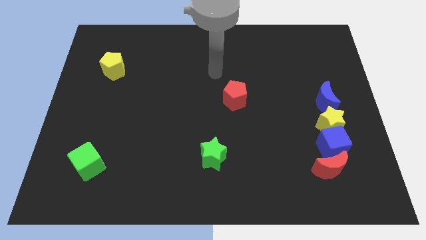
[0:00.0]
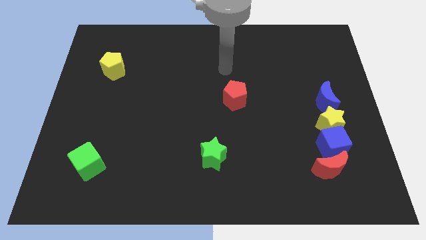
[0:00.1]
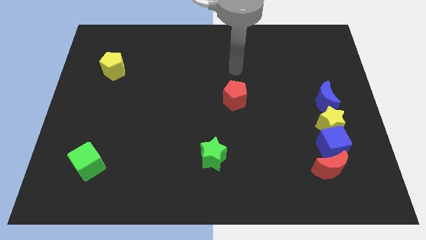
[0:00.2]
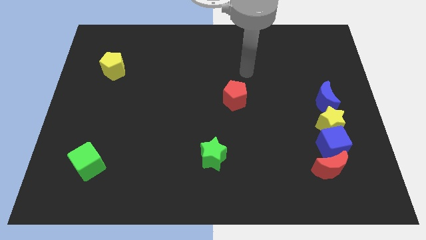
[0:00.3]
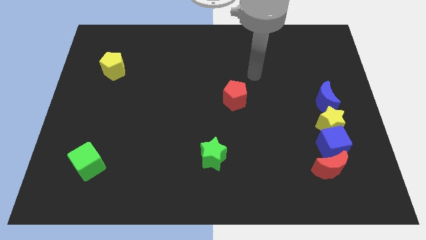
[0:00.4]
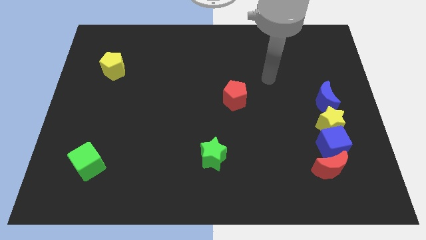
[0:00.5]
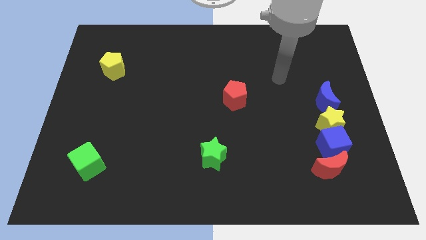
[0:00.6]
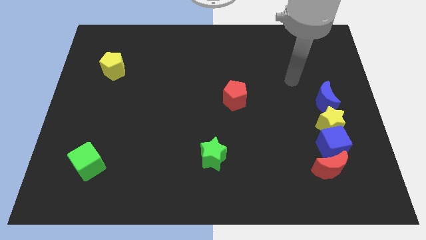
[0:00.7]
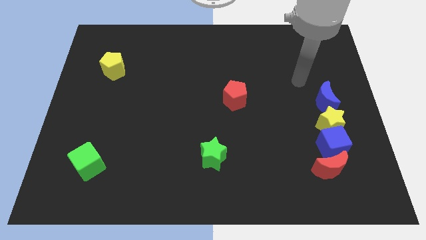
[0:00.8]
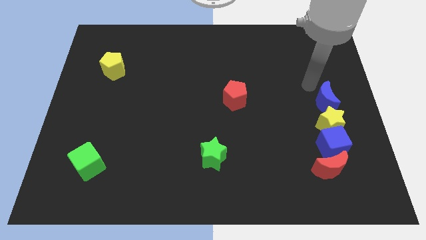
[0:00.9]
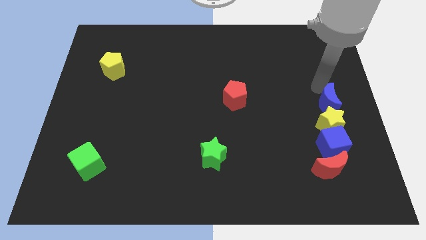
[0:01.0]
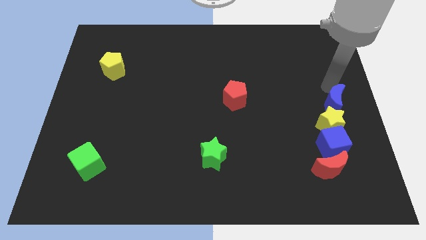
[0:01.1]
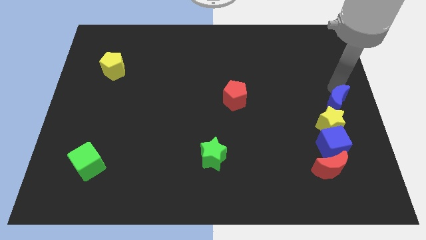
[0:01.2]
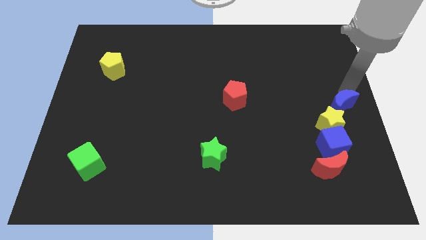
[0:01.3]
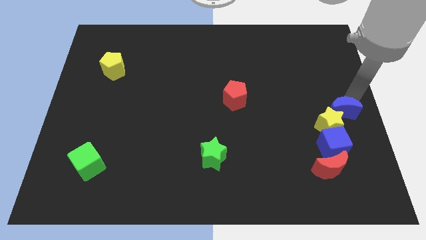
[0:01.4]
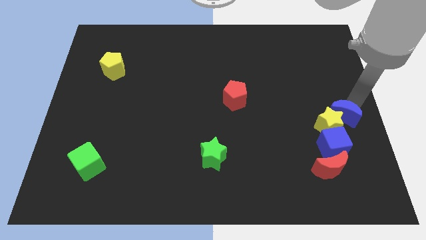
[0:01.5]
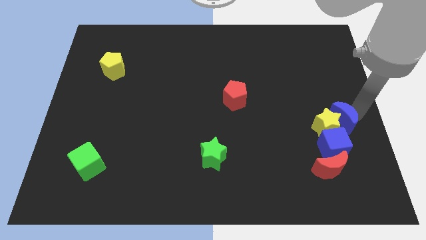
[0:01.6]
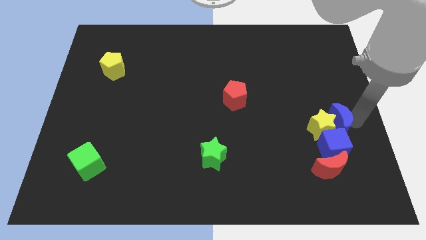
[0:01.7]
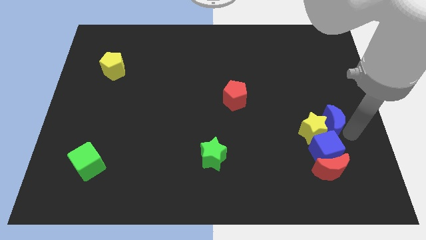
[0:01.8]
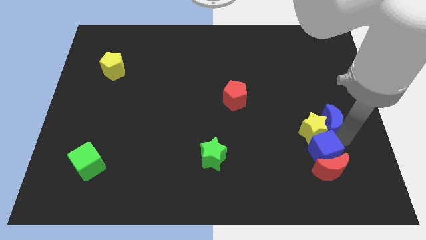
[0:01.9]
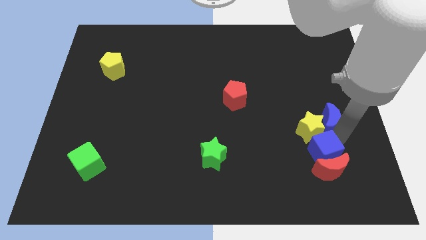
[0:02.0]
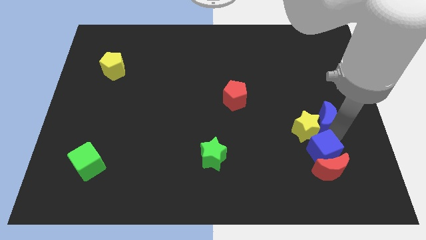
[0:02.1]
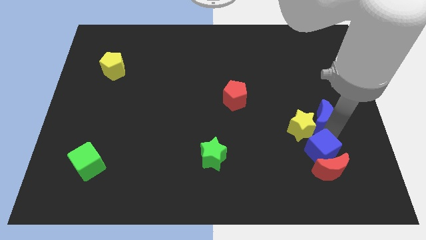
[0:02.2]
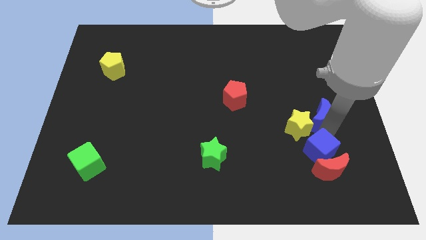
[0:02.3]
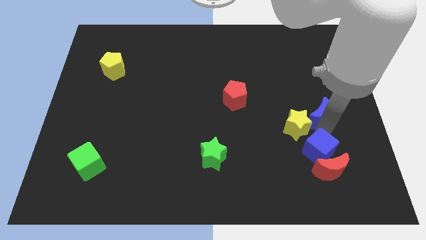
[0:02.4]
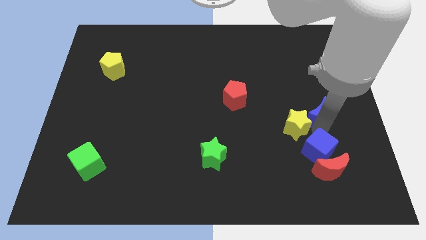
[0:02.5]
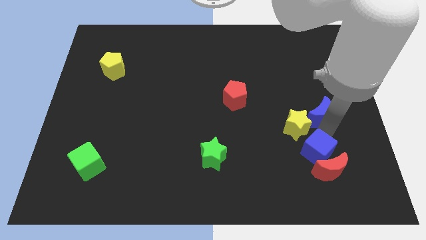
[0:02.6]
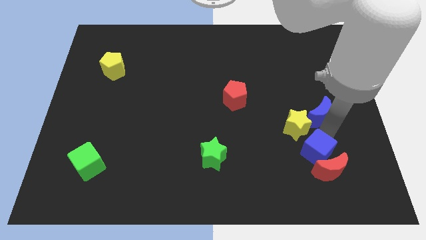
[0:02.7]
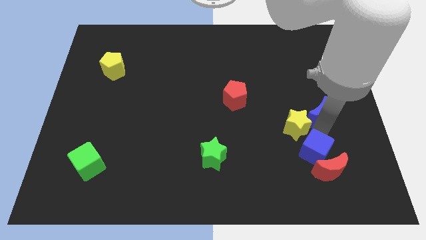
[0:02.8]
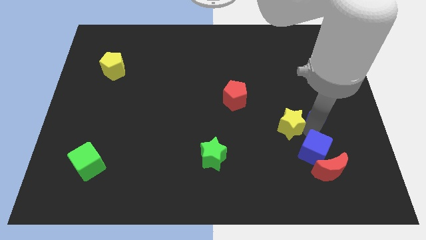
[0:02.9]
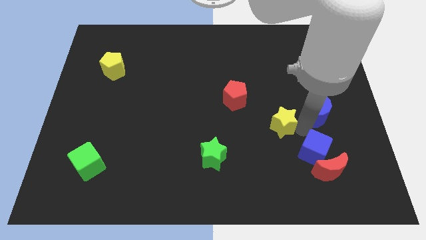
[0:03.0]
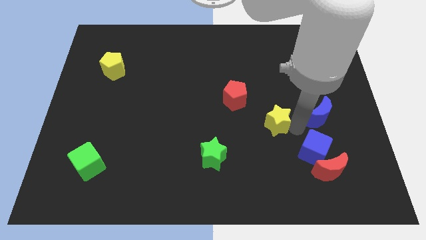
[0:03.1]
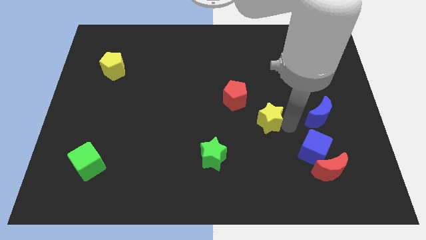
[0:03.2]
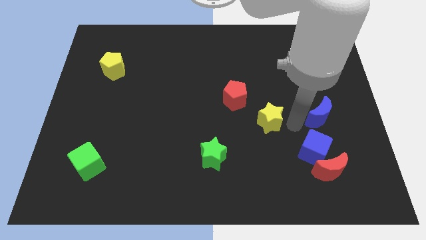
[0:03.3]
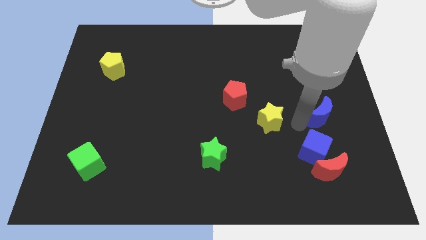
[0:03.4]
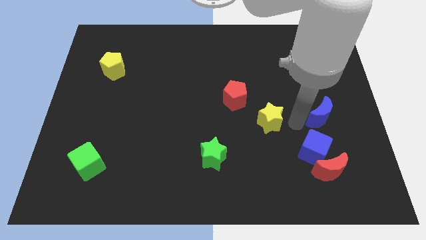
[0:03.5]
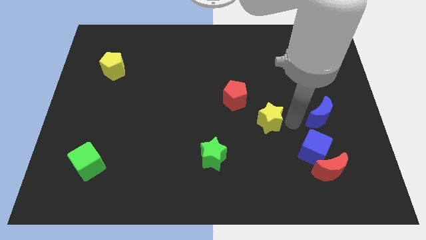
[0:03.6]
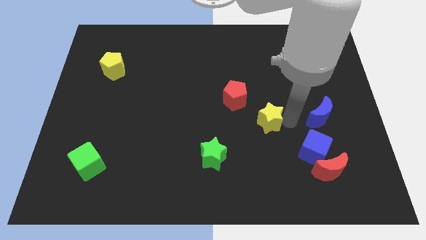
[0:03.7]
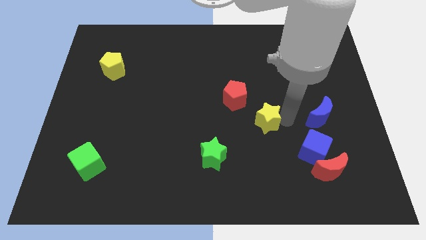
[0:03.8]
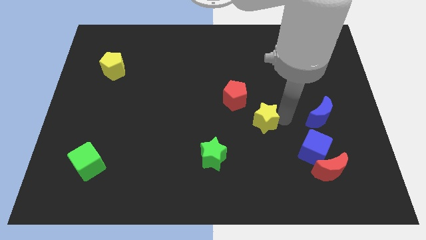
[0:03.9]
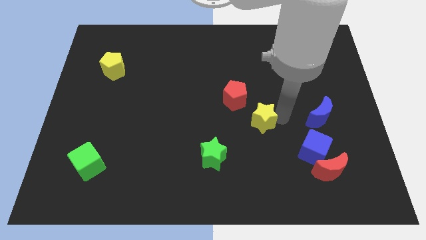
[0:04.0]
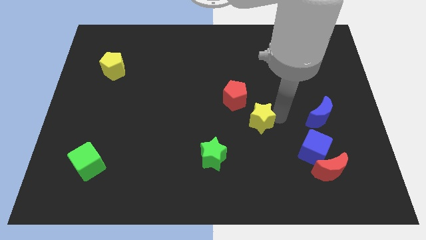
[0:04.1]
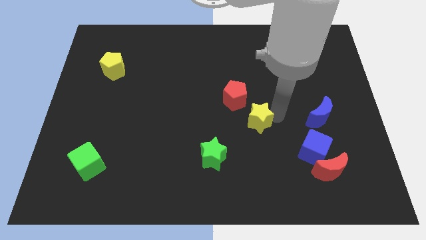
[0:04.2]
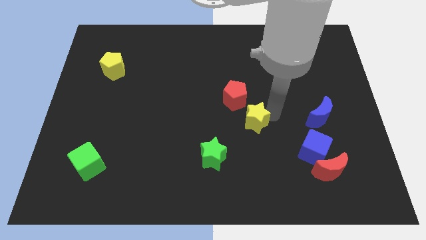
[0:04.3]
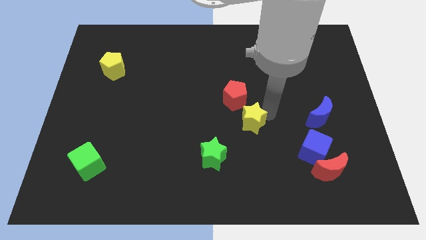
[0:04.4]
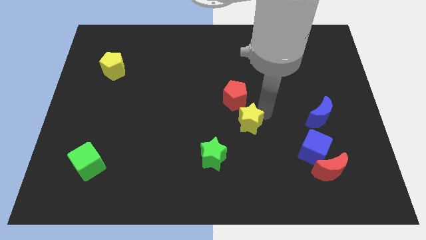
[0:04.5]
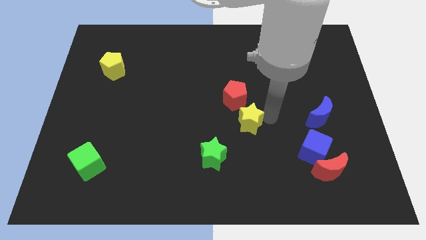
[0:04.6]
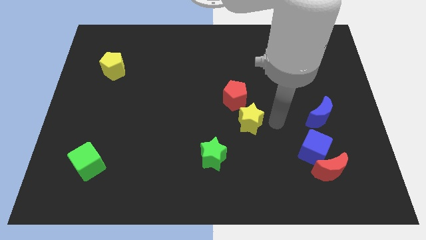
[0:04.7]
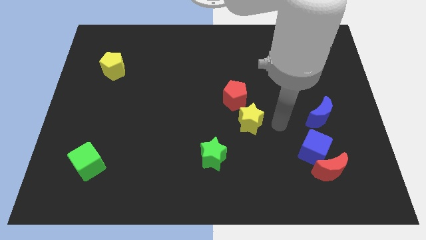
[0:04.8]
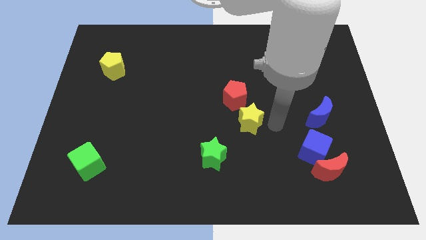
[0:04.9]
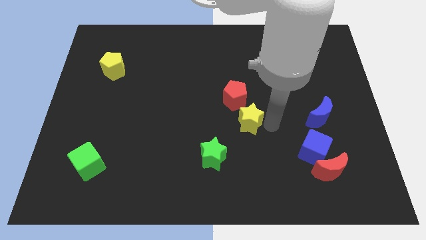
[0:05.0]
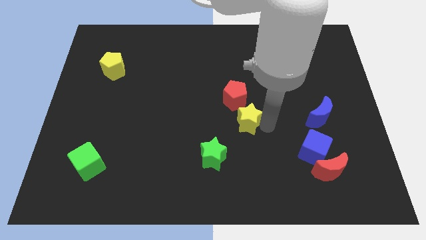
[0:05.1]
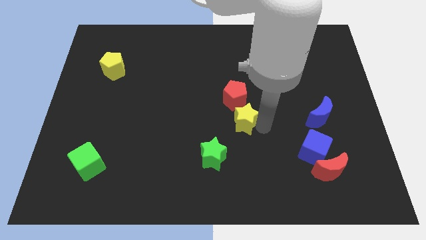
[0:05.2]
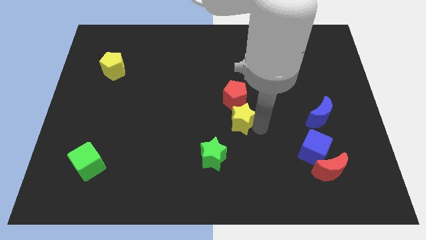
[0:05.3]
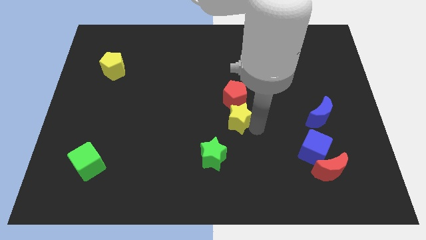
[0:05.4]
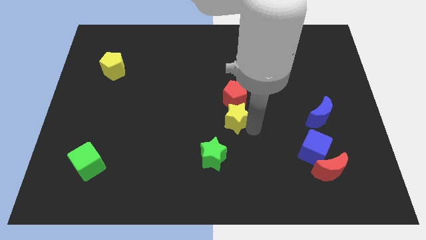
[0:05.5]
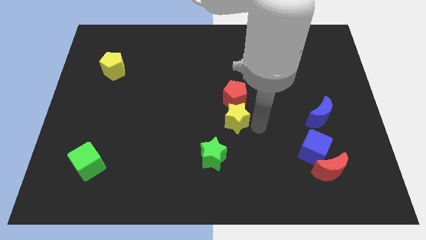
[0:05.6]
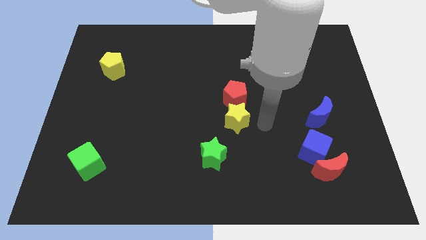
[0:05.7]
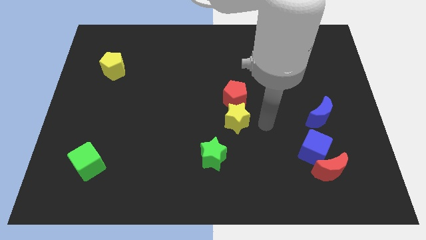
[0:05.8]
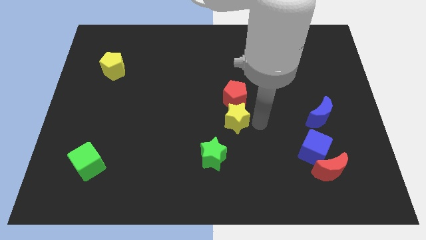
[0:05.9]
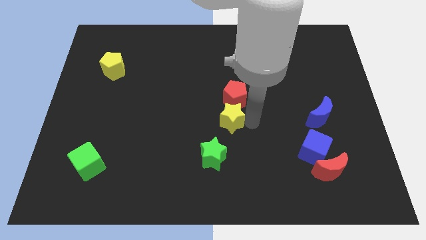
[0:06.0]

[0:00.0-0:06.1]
push the yellow star to the top side of the green star

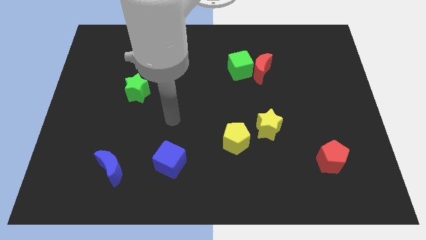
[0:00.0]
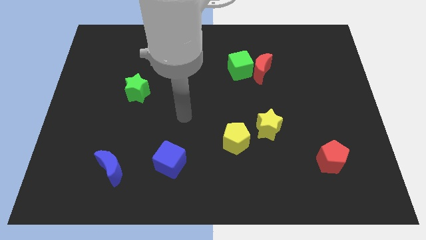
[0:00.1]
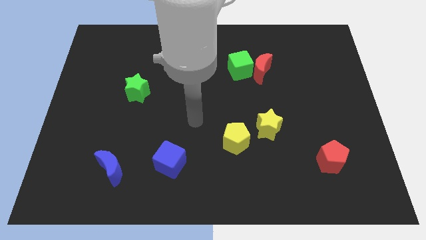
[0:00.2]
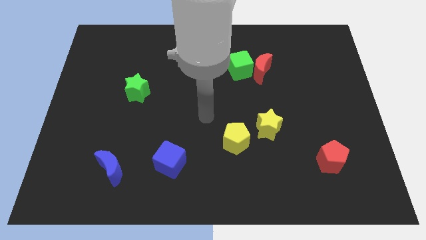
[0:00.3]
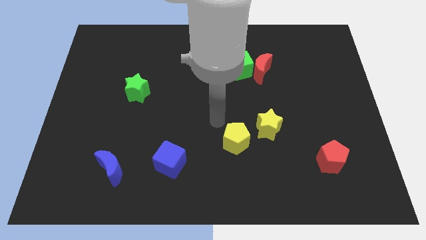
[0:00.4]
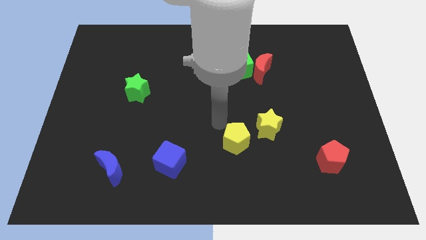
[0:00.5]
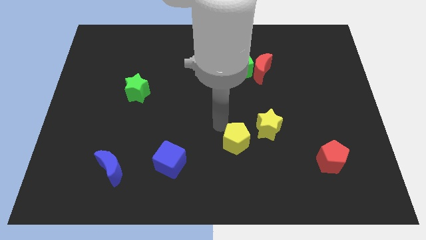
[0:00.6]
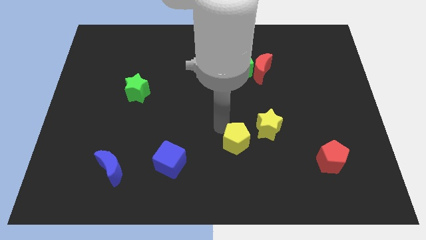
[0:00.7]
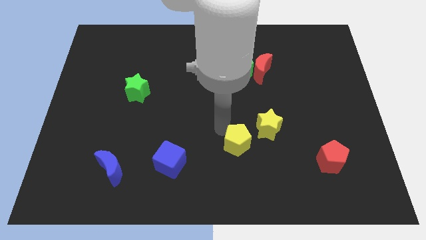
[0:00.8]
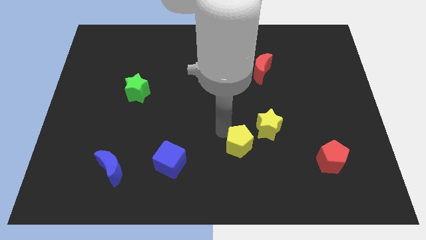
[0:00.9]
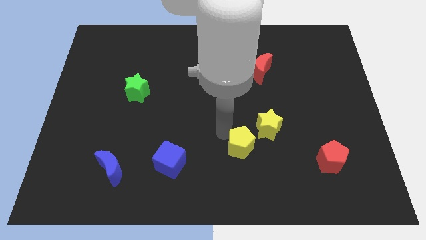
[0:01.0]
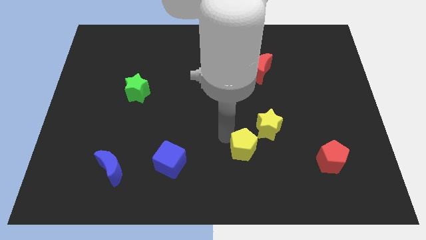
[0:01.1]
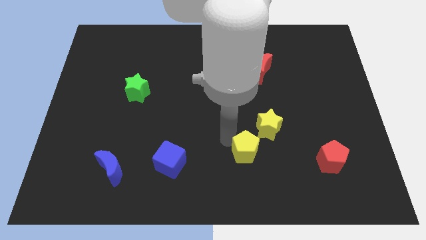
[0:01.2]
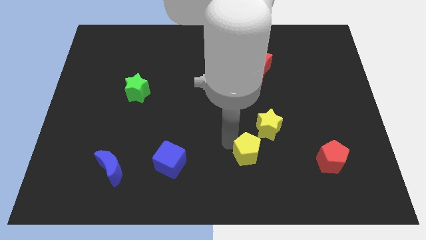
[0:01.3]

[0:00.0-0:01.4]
push the yellow pentagon to the bottom of the yellow star
